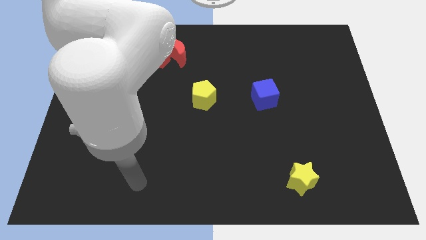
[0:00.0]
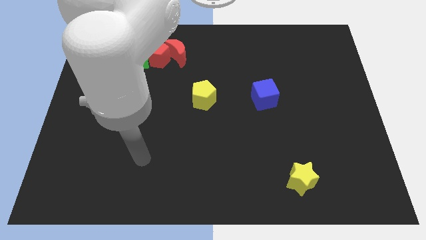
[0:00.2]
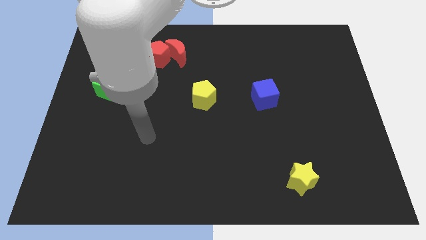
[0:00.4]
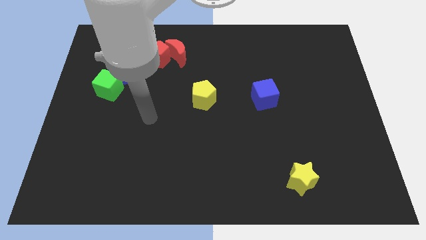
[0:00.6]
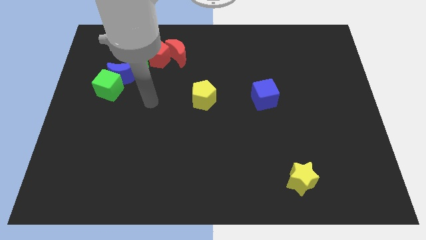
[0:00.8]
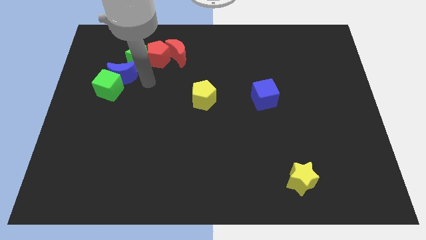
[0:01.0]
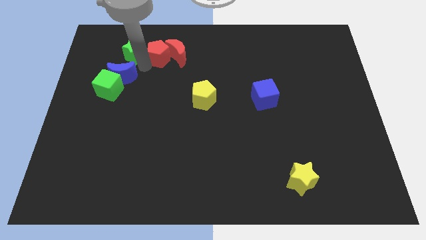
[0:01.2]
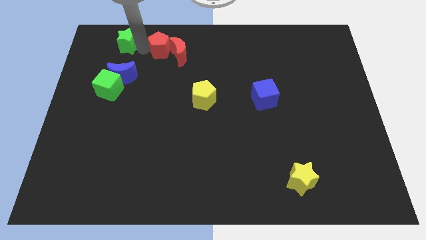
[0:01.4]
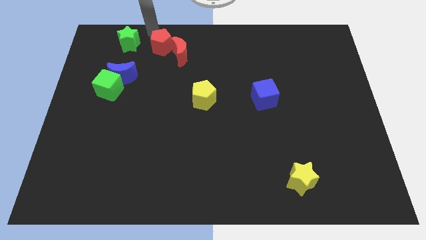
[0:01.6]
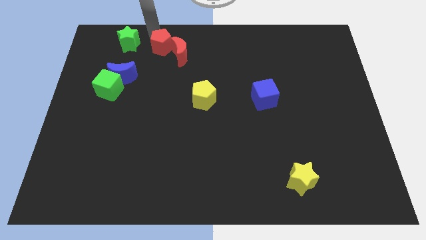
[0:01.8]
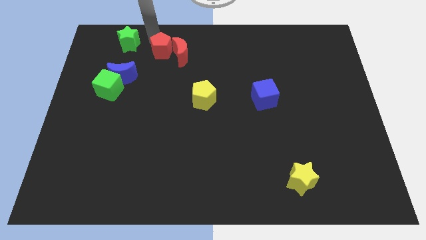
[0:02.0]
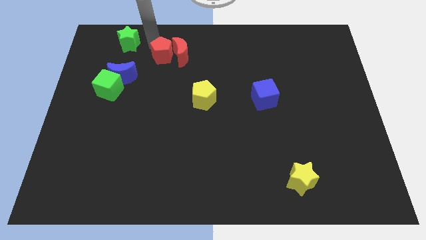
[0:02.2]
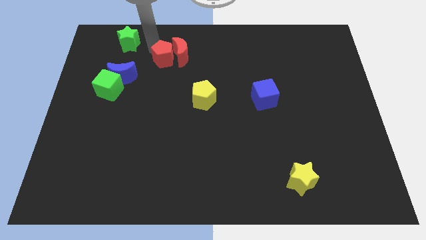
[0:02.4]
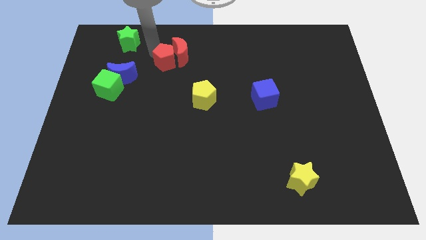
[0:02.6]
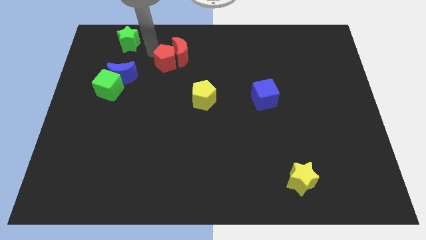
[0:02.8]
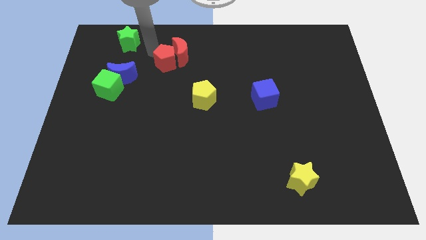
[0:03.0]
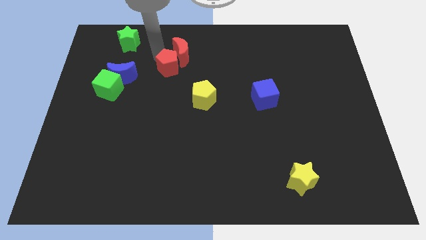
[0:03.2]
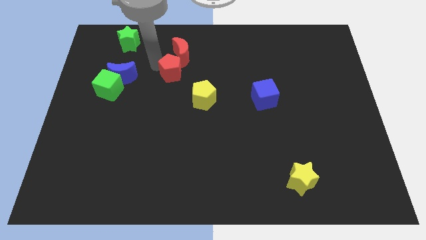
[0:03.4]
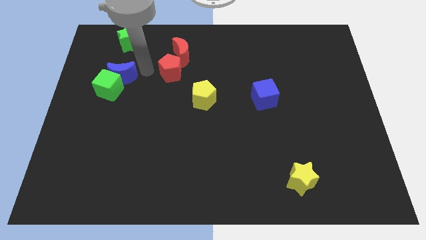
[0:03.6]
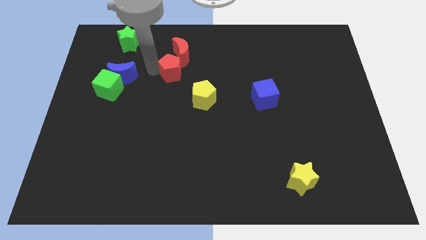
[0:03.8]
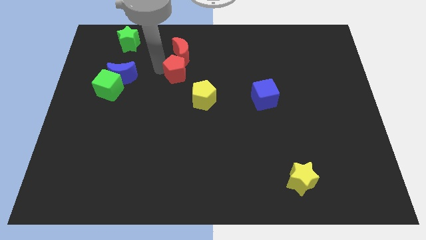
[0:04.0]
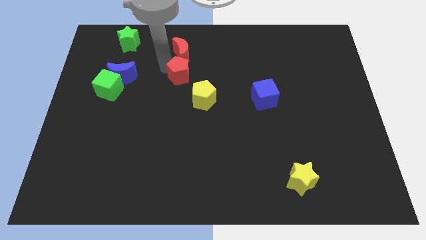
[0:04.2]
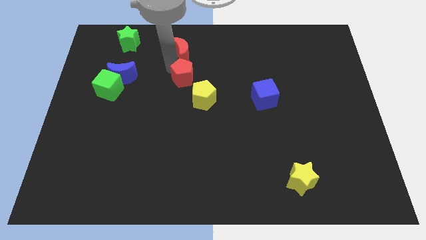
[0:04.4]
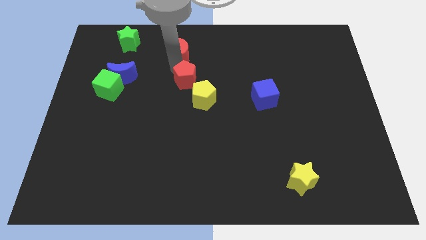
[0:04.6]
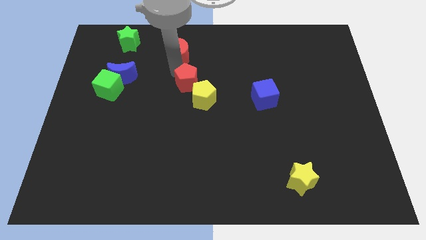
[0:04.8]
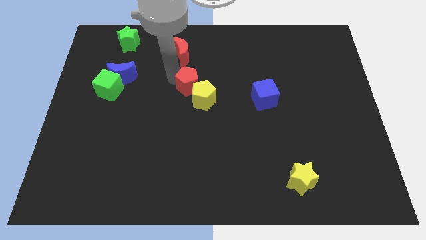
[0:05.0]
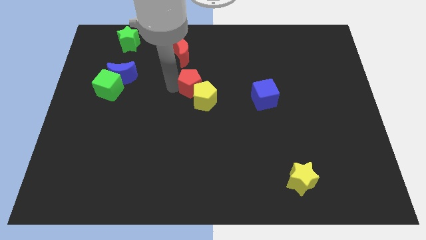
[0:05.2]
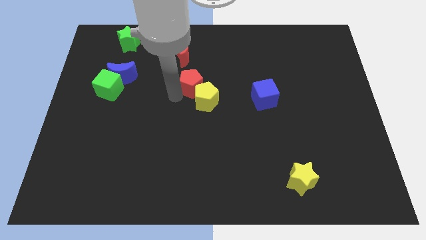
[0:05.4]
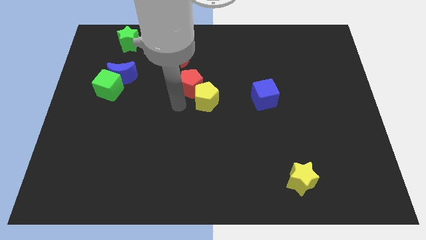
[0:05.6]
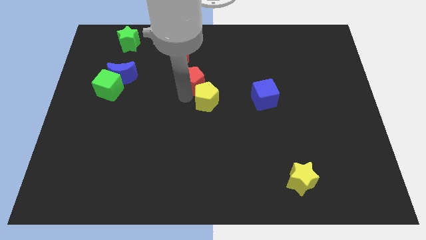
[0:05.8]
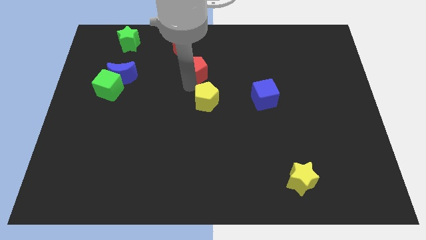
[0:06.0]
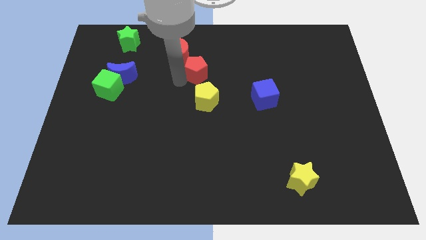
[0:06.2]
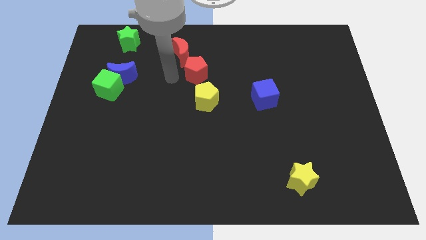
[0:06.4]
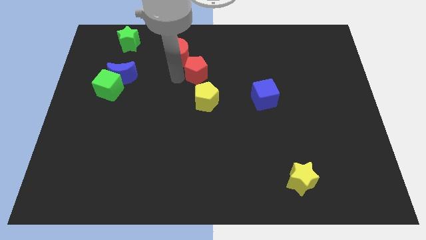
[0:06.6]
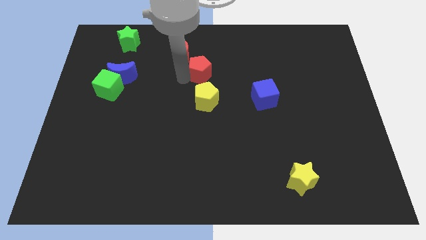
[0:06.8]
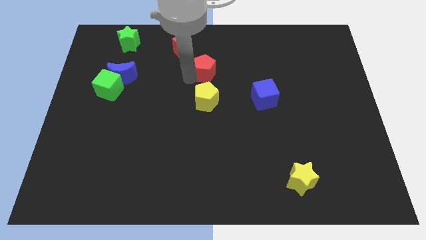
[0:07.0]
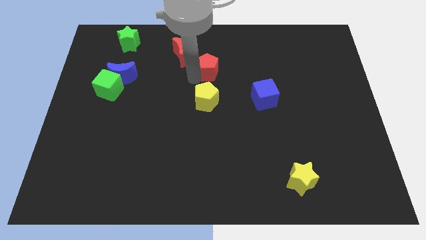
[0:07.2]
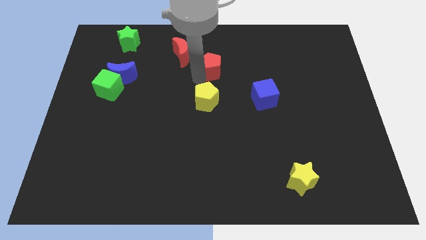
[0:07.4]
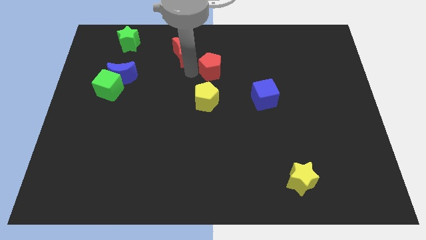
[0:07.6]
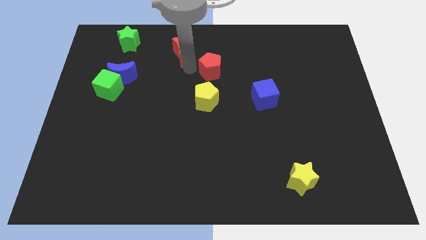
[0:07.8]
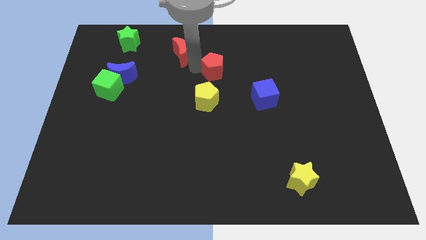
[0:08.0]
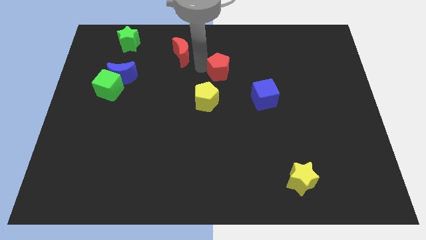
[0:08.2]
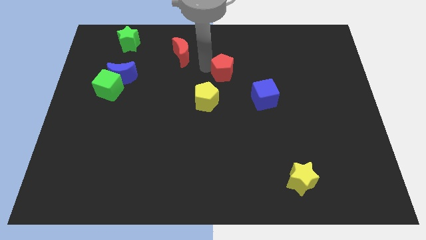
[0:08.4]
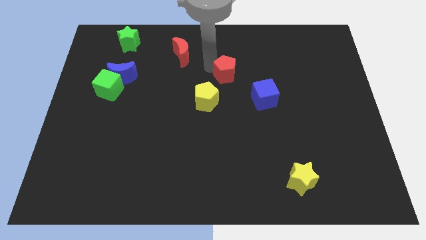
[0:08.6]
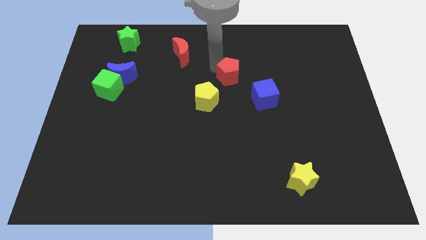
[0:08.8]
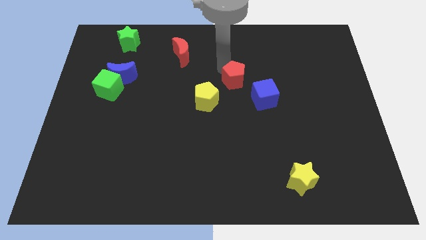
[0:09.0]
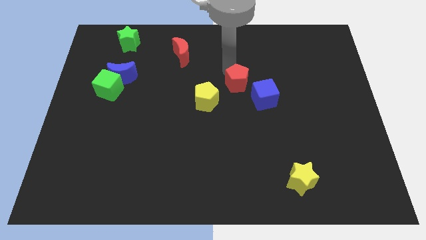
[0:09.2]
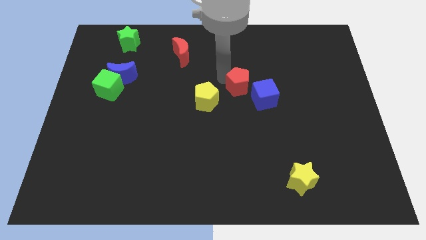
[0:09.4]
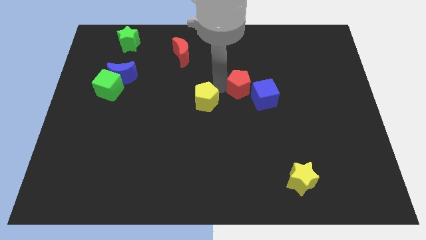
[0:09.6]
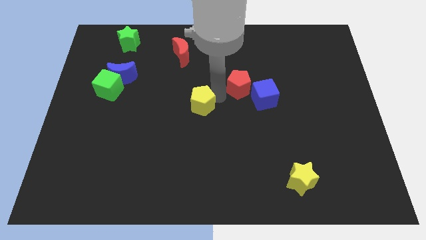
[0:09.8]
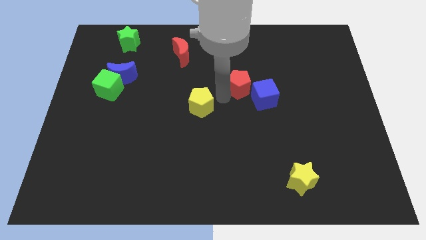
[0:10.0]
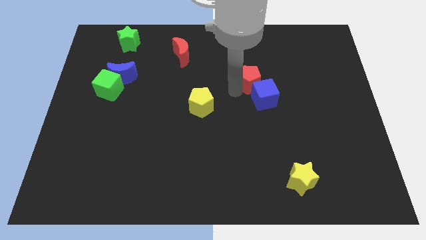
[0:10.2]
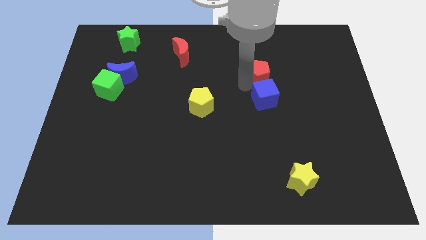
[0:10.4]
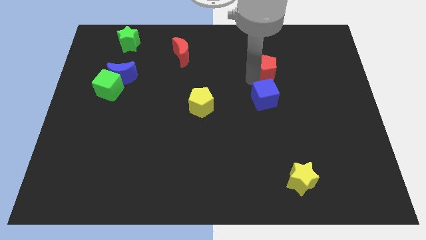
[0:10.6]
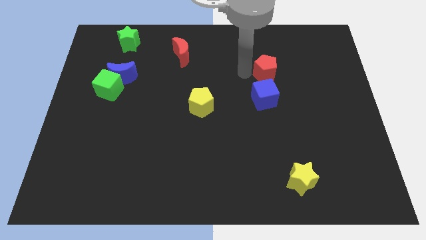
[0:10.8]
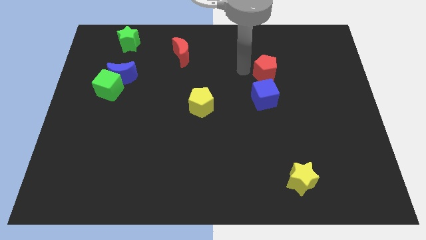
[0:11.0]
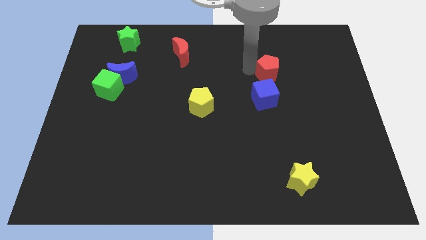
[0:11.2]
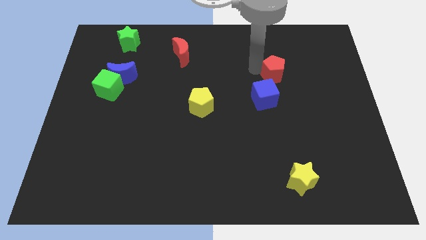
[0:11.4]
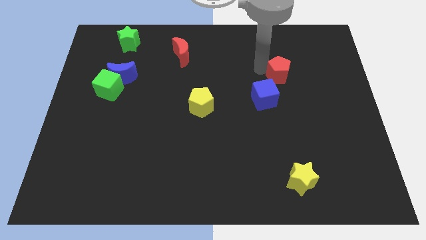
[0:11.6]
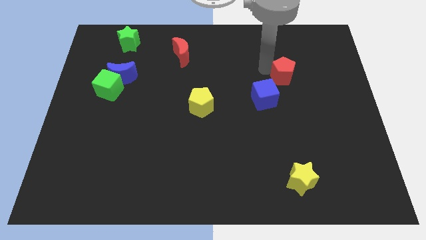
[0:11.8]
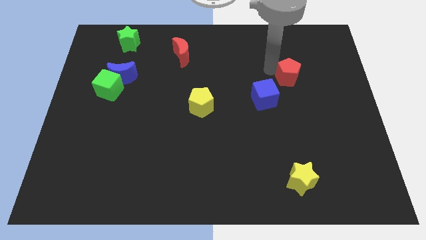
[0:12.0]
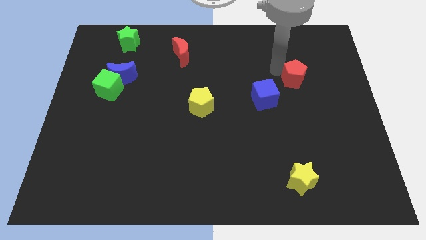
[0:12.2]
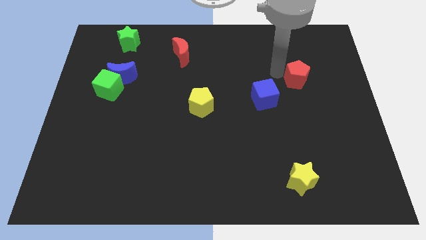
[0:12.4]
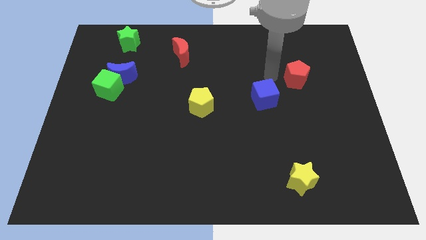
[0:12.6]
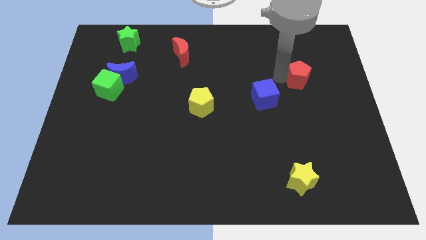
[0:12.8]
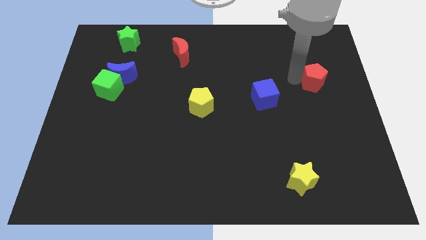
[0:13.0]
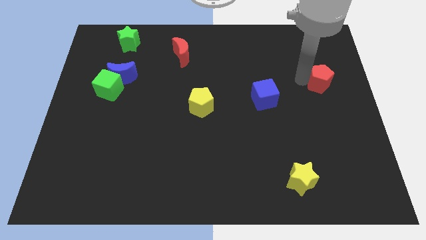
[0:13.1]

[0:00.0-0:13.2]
slide the red pentagon to the right side

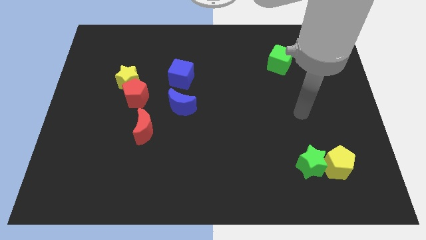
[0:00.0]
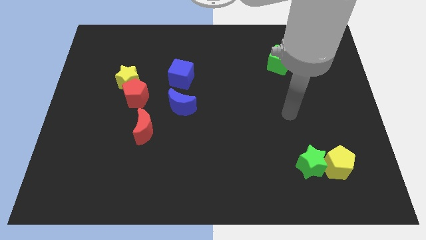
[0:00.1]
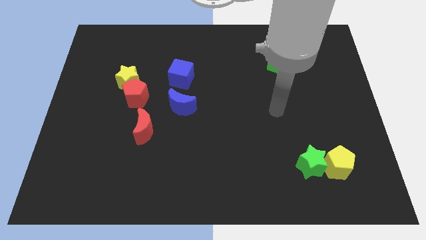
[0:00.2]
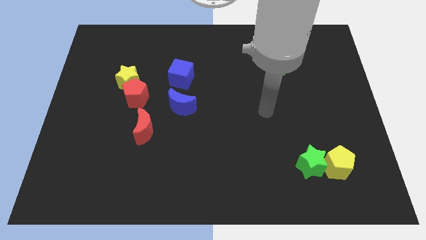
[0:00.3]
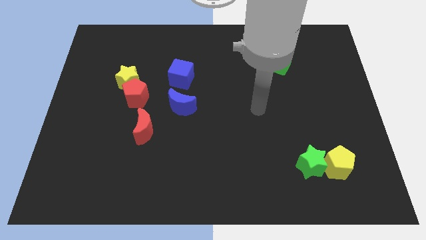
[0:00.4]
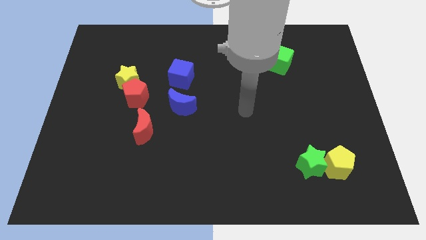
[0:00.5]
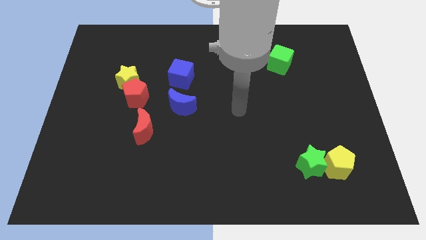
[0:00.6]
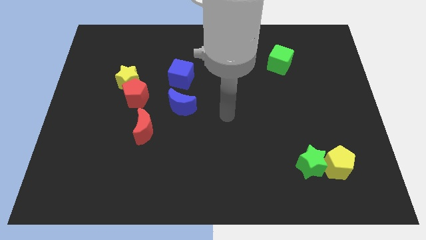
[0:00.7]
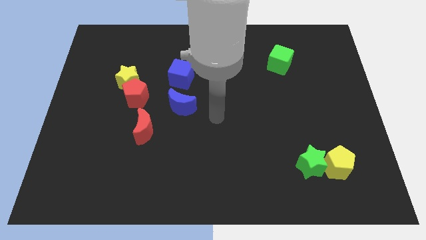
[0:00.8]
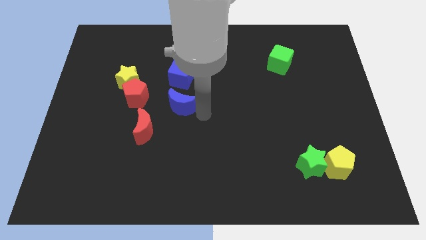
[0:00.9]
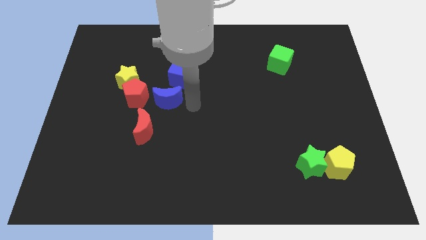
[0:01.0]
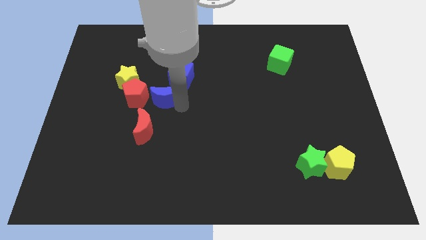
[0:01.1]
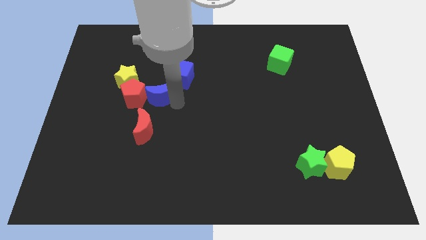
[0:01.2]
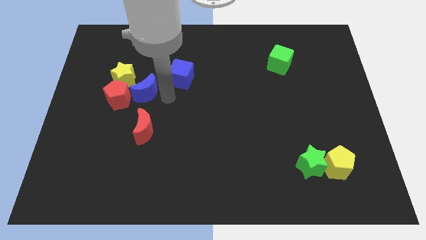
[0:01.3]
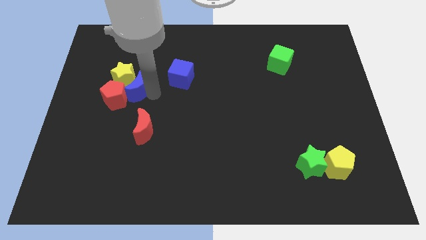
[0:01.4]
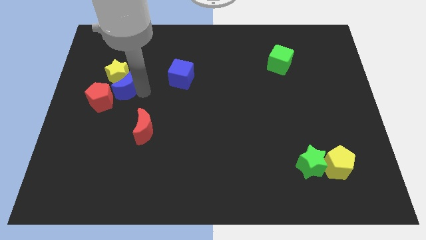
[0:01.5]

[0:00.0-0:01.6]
push the red pentagon to the left side of the board
